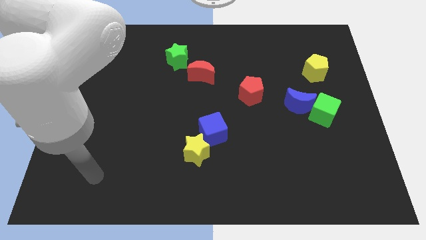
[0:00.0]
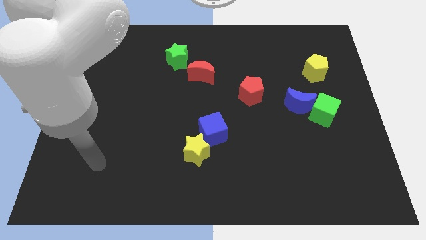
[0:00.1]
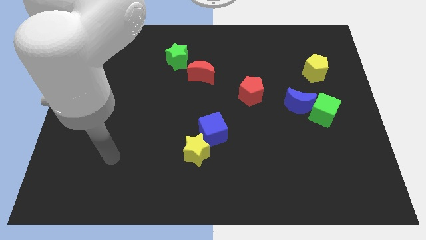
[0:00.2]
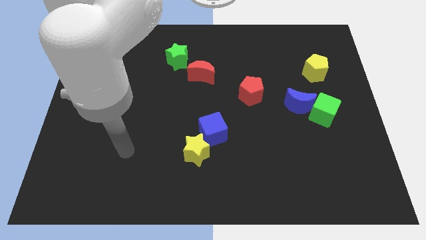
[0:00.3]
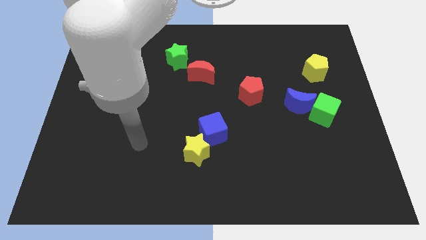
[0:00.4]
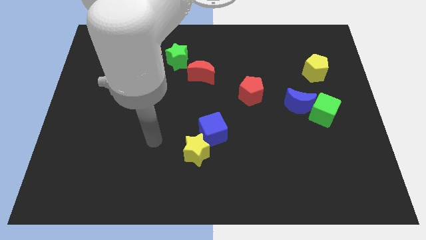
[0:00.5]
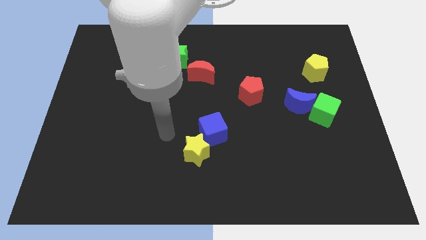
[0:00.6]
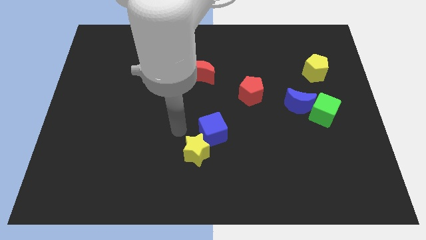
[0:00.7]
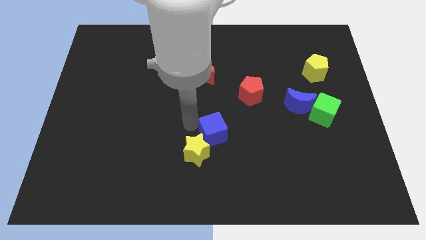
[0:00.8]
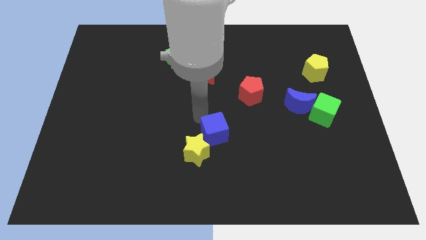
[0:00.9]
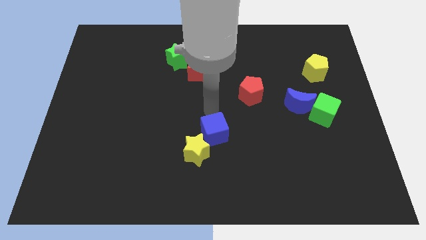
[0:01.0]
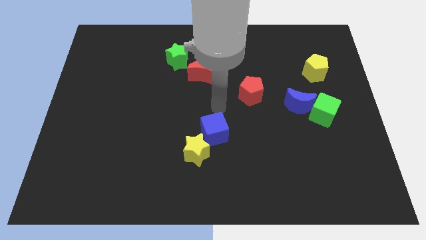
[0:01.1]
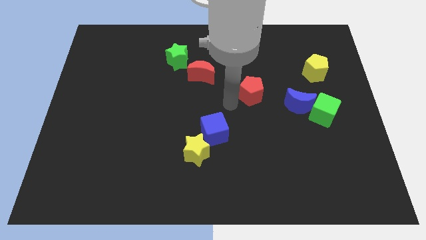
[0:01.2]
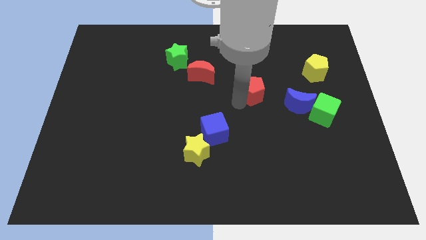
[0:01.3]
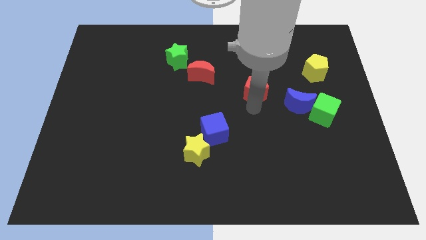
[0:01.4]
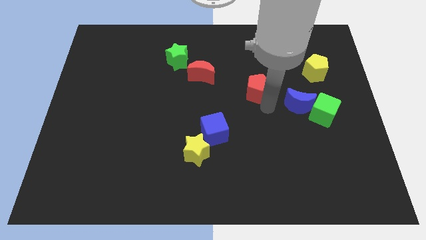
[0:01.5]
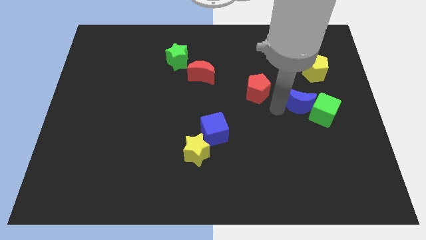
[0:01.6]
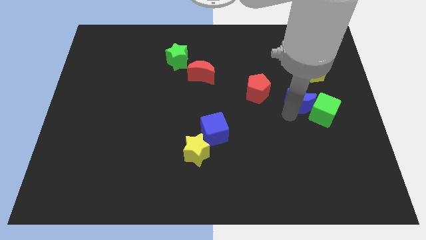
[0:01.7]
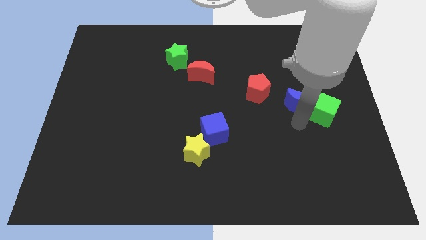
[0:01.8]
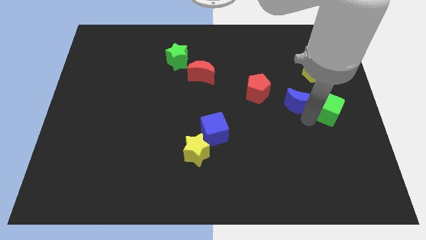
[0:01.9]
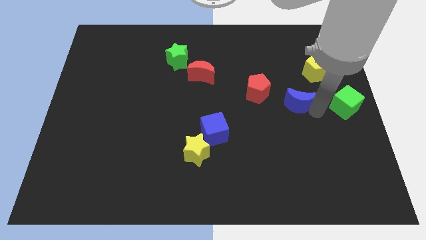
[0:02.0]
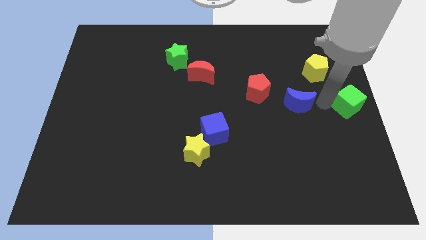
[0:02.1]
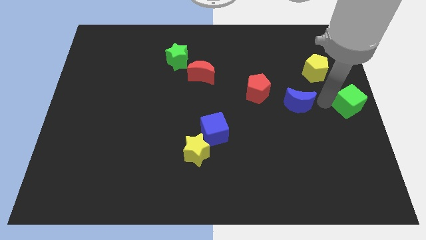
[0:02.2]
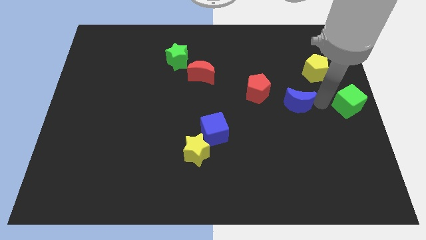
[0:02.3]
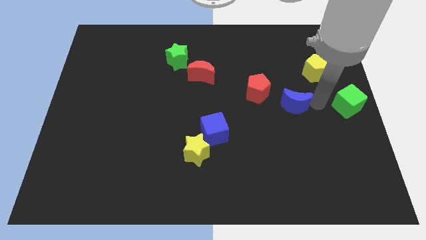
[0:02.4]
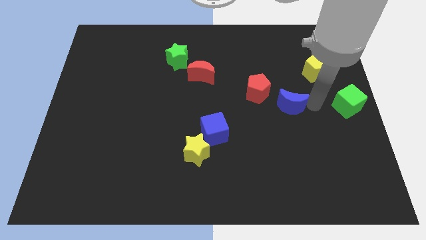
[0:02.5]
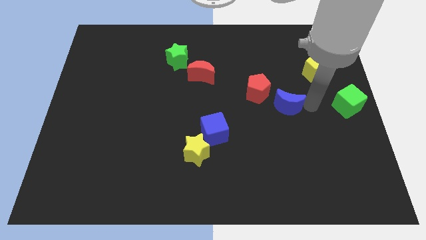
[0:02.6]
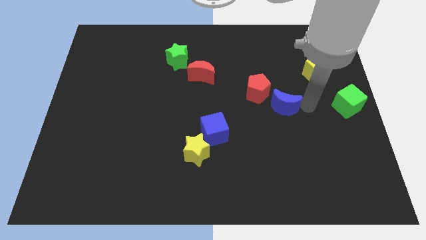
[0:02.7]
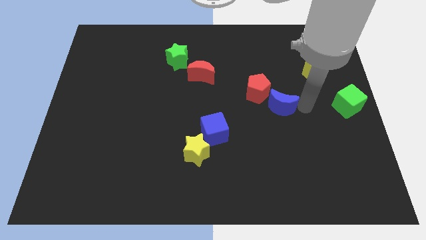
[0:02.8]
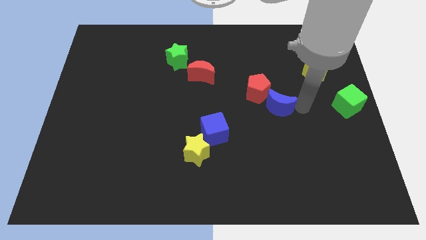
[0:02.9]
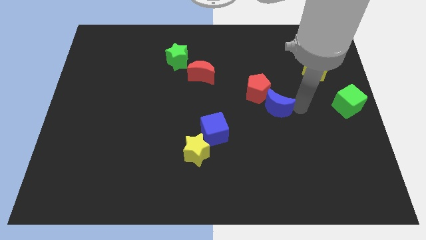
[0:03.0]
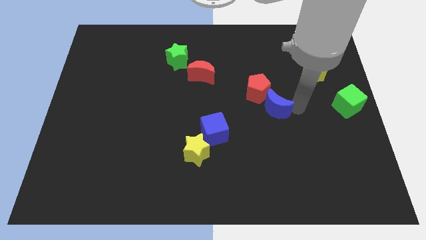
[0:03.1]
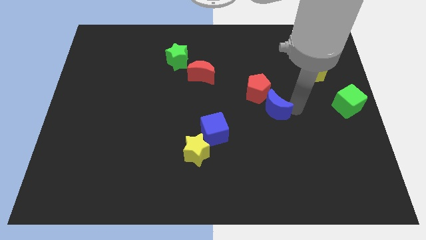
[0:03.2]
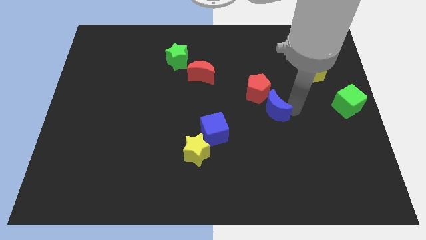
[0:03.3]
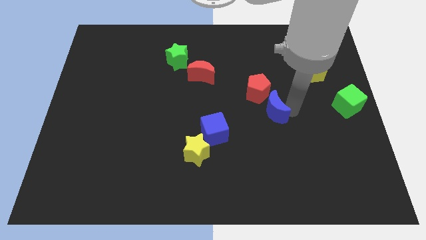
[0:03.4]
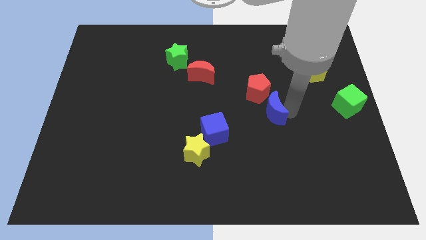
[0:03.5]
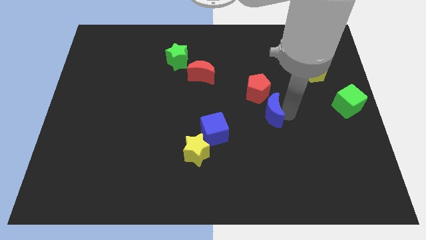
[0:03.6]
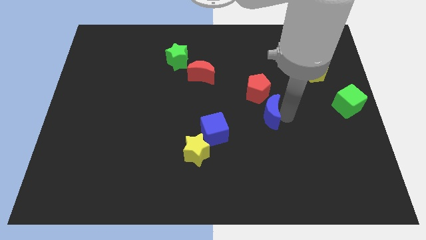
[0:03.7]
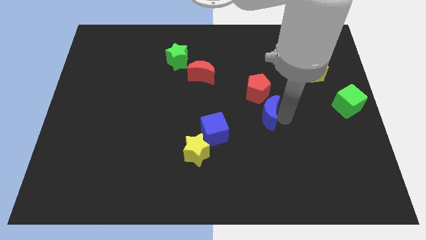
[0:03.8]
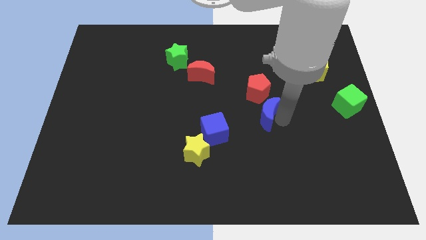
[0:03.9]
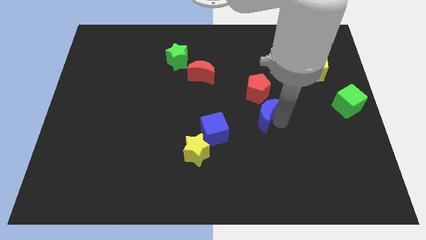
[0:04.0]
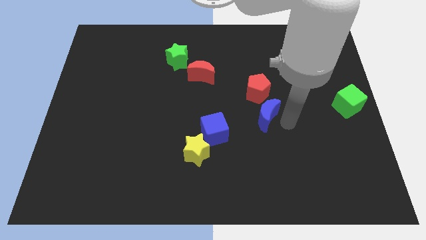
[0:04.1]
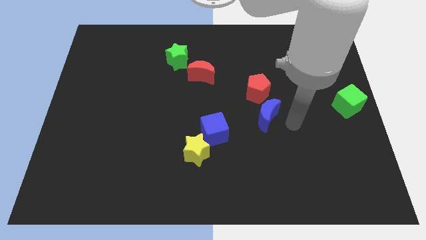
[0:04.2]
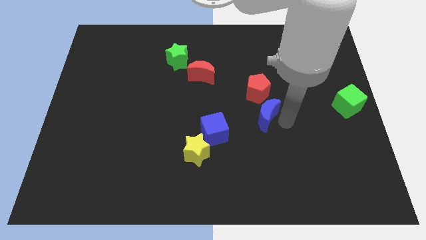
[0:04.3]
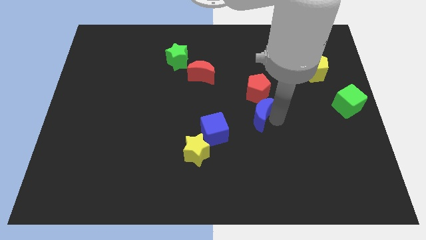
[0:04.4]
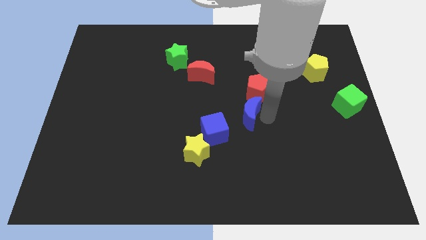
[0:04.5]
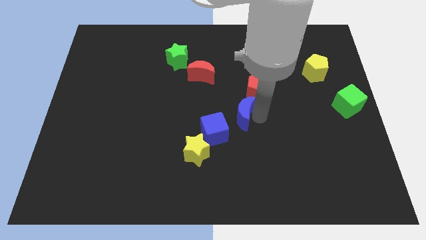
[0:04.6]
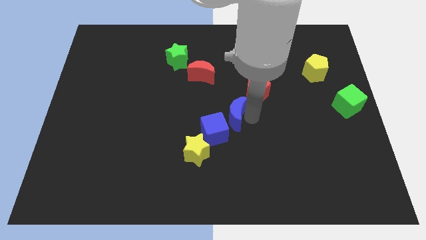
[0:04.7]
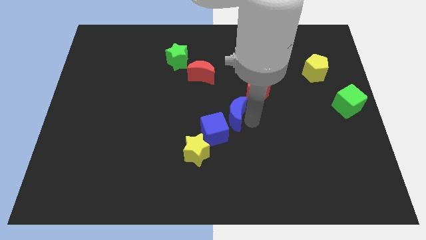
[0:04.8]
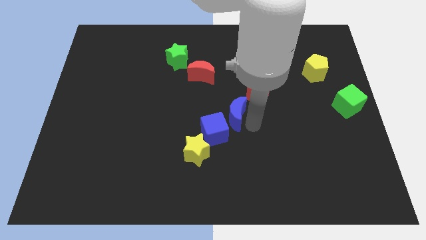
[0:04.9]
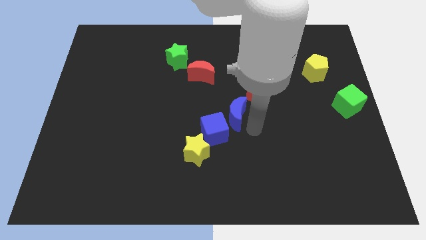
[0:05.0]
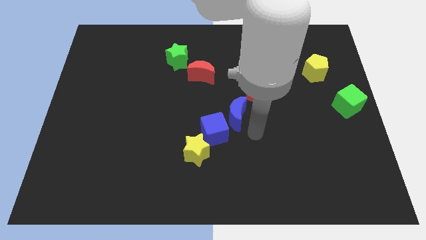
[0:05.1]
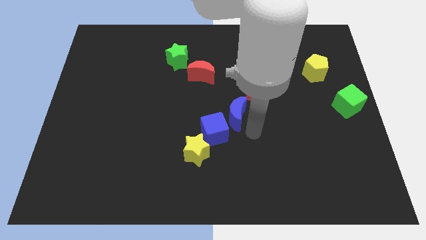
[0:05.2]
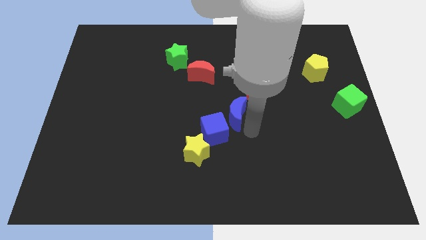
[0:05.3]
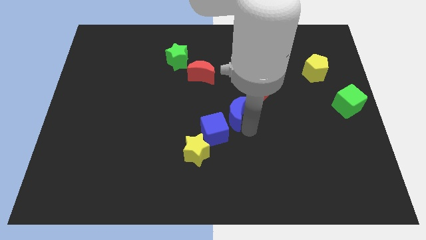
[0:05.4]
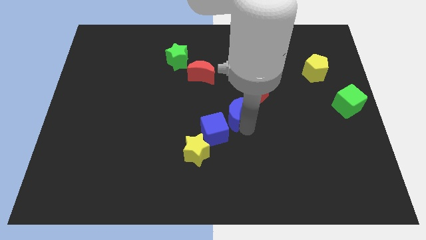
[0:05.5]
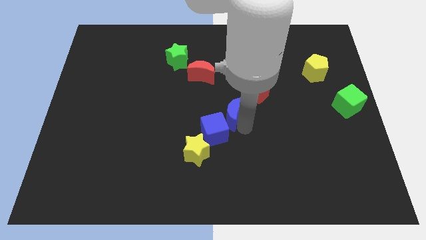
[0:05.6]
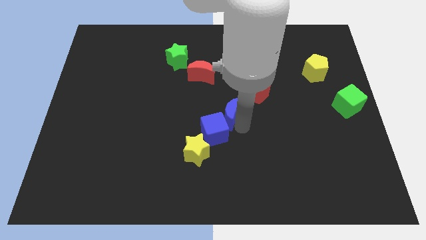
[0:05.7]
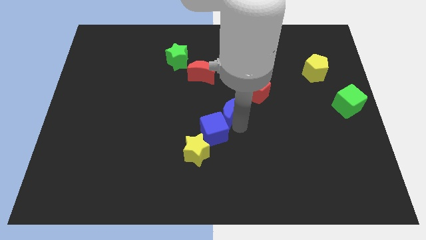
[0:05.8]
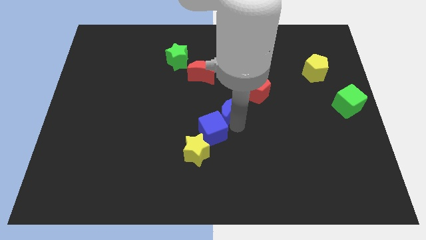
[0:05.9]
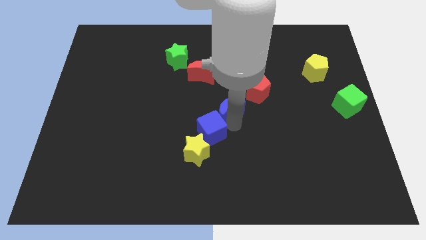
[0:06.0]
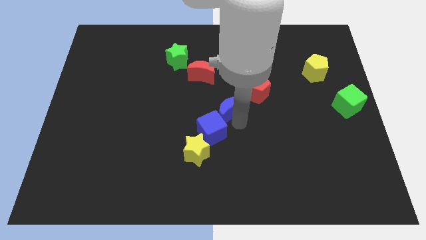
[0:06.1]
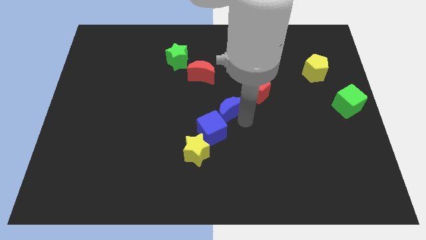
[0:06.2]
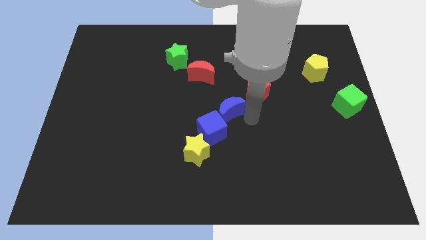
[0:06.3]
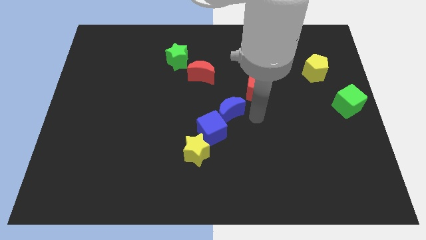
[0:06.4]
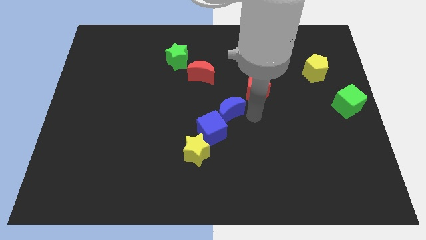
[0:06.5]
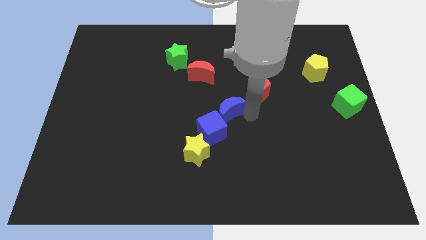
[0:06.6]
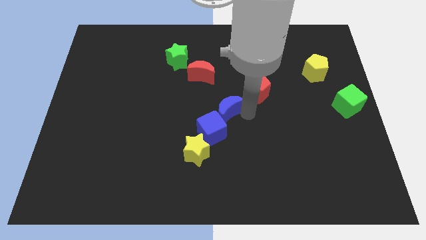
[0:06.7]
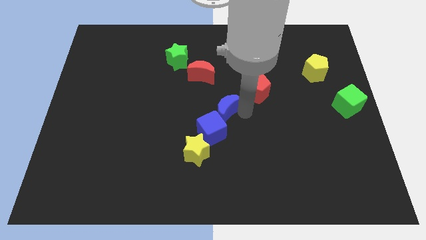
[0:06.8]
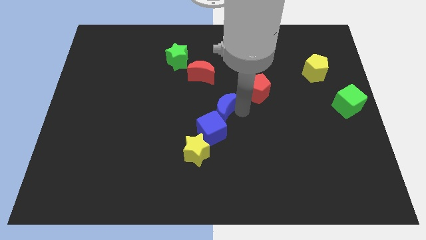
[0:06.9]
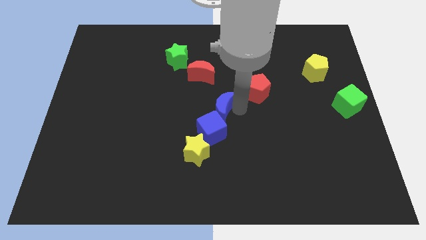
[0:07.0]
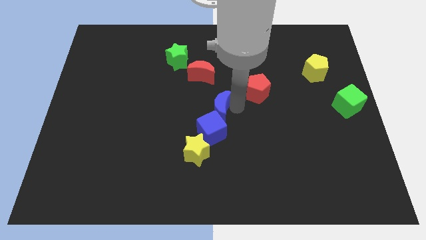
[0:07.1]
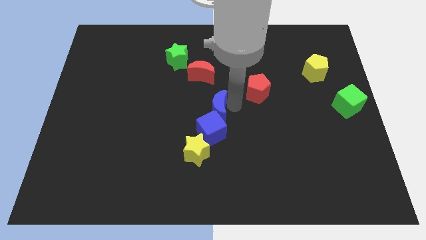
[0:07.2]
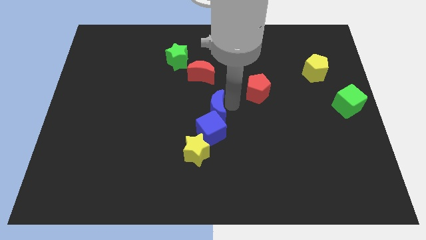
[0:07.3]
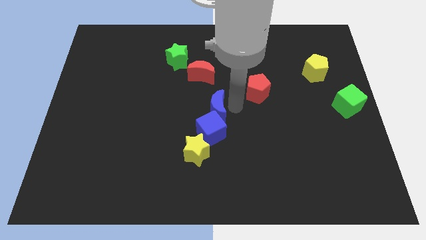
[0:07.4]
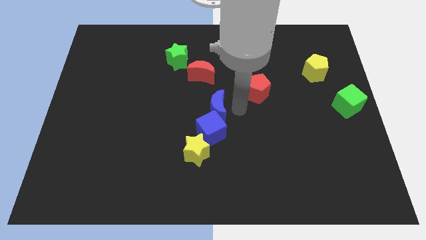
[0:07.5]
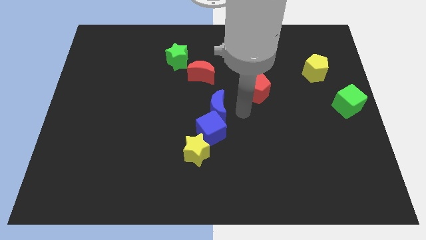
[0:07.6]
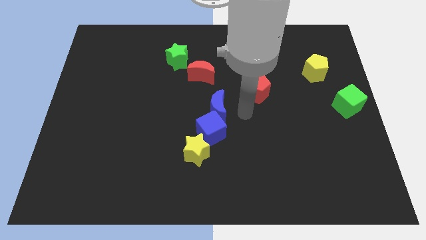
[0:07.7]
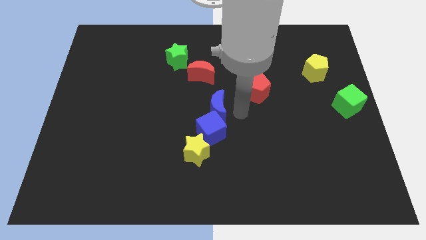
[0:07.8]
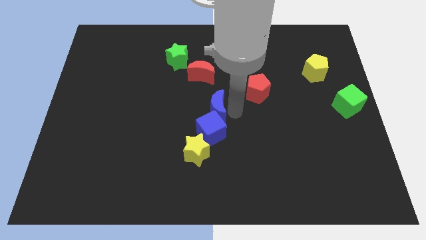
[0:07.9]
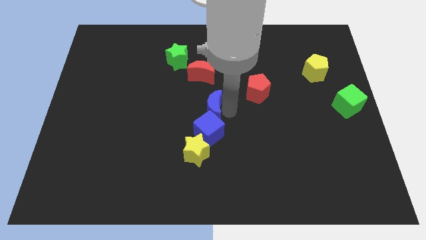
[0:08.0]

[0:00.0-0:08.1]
slide the blue moon left

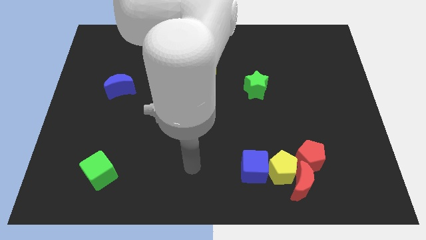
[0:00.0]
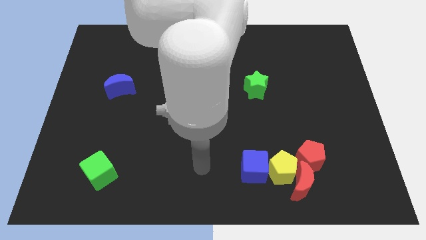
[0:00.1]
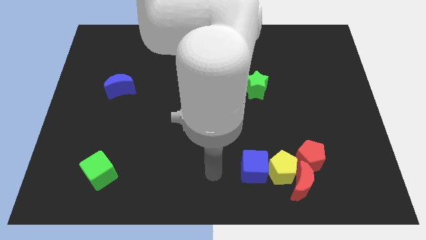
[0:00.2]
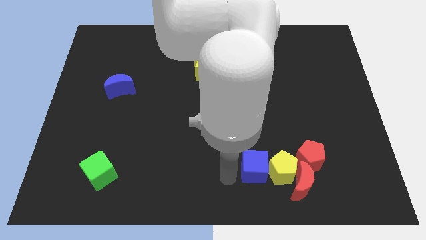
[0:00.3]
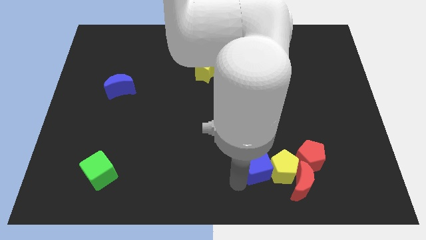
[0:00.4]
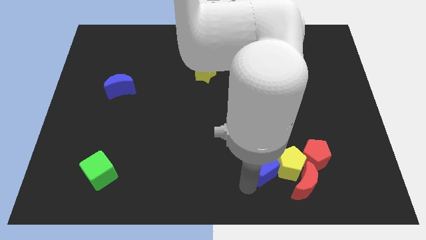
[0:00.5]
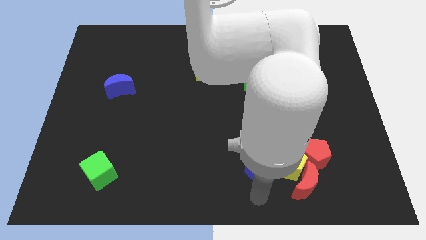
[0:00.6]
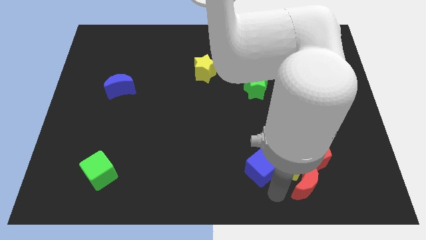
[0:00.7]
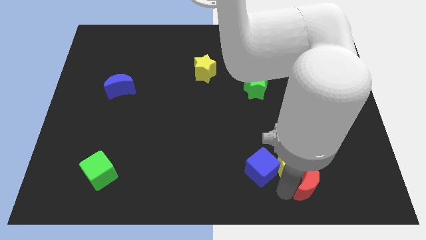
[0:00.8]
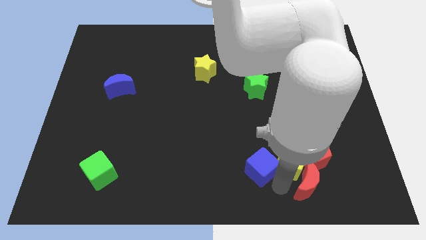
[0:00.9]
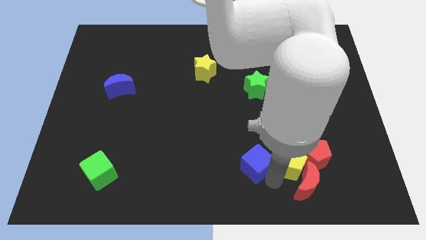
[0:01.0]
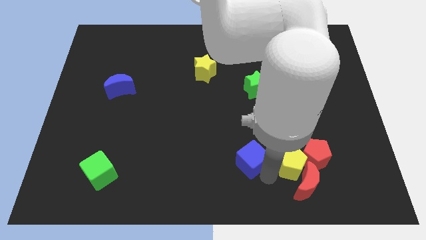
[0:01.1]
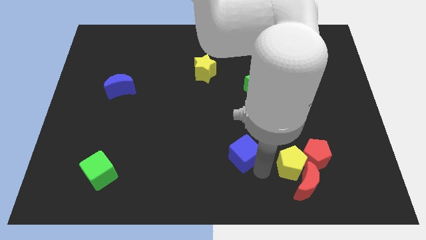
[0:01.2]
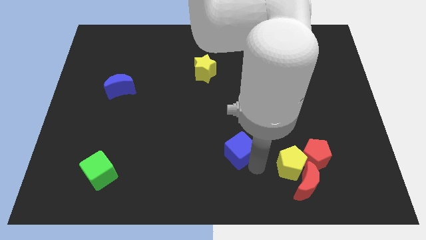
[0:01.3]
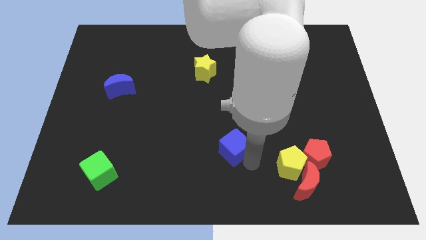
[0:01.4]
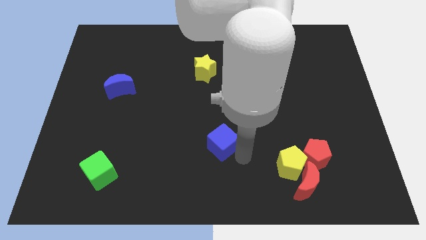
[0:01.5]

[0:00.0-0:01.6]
move the blue cube upwards and left diagonally a little bit
